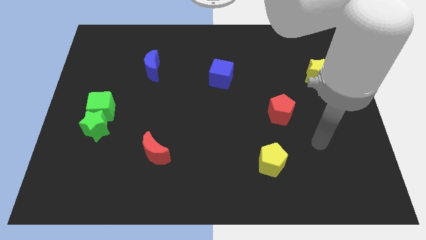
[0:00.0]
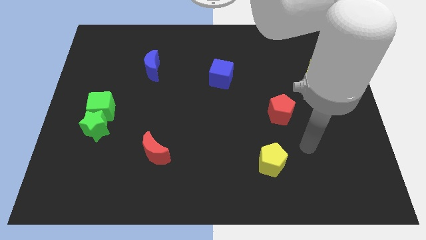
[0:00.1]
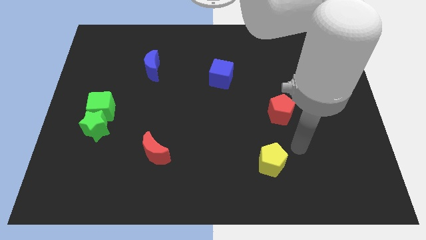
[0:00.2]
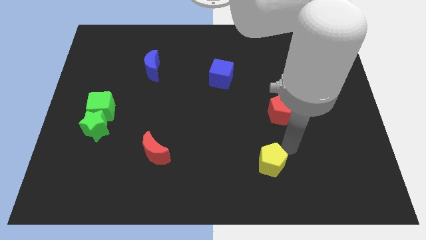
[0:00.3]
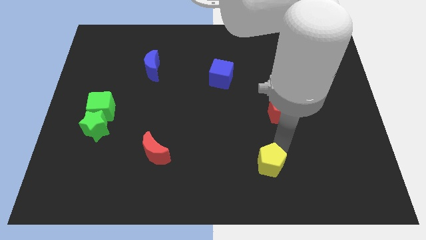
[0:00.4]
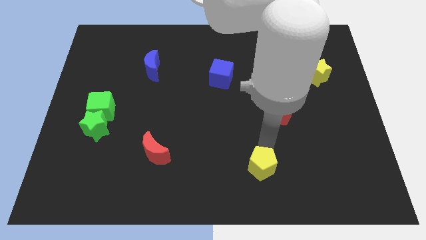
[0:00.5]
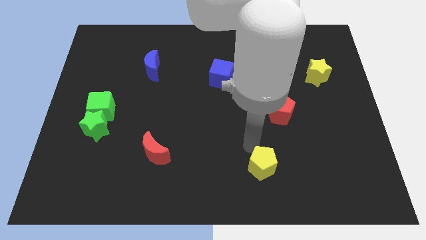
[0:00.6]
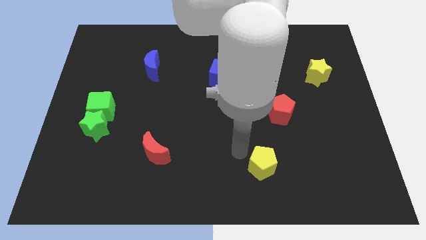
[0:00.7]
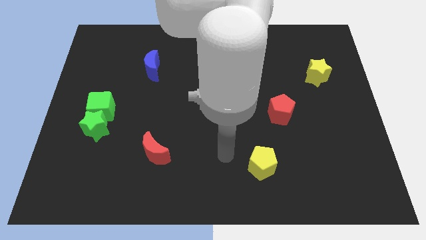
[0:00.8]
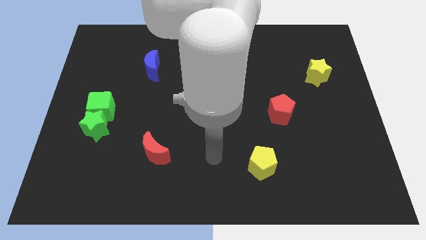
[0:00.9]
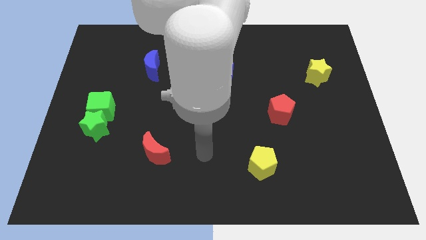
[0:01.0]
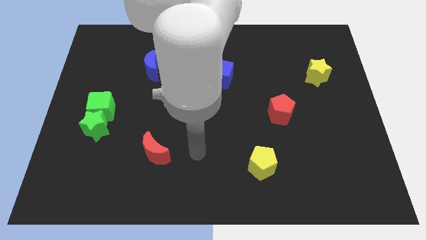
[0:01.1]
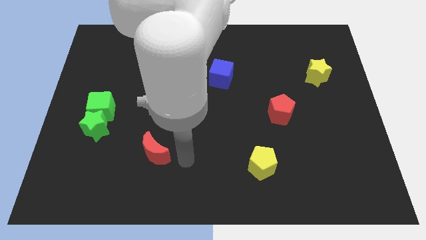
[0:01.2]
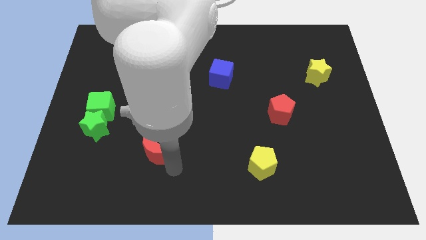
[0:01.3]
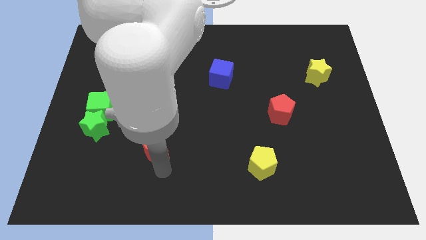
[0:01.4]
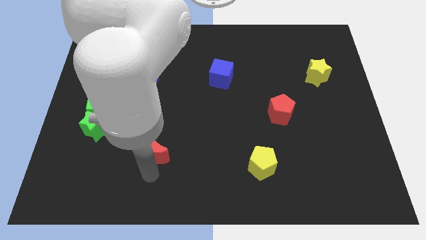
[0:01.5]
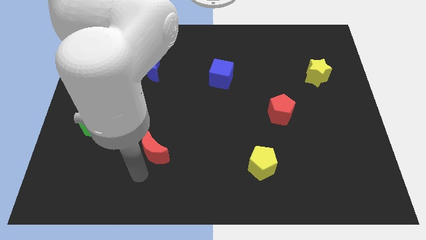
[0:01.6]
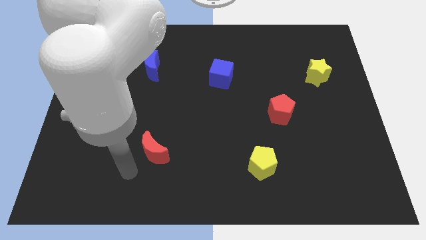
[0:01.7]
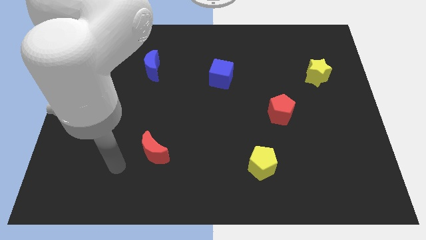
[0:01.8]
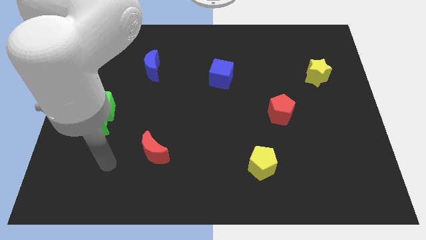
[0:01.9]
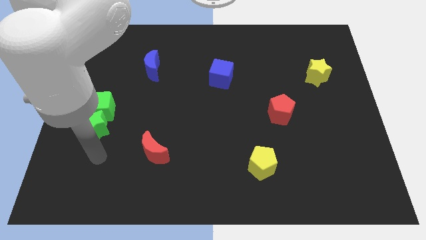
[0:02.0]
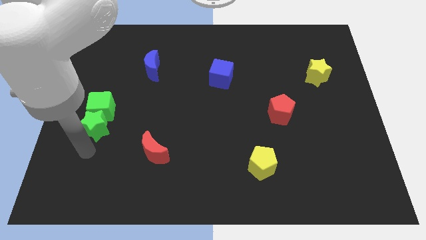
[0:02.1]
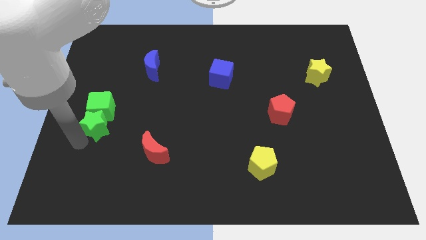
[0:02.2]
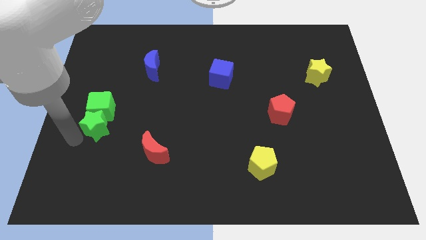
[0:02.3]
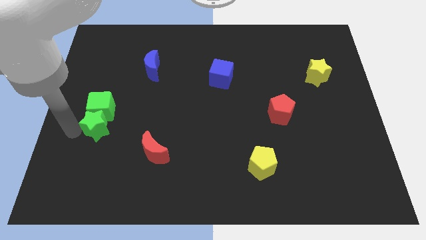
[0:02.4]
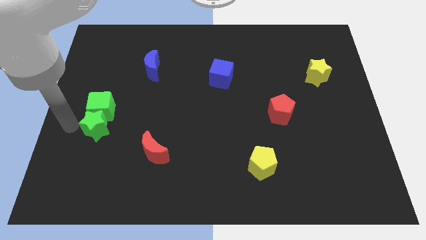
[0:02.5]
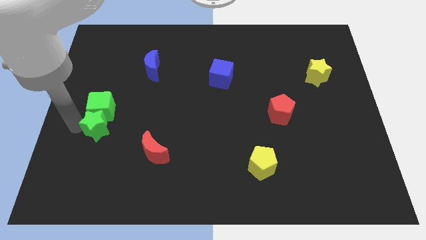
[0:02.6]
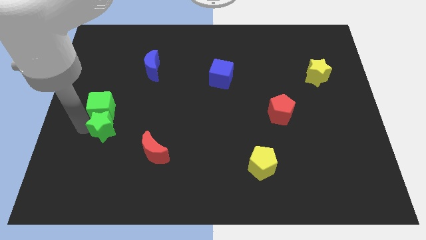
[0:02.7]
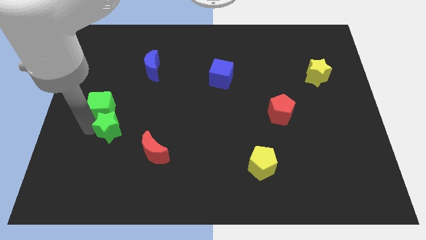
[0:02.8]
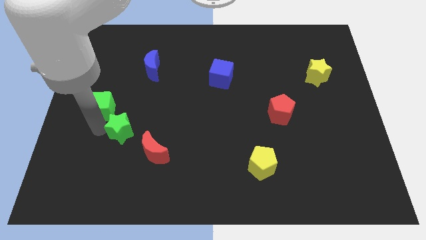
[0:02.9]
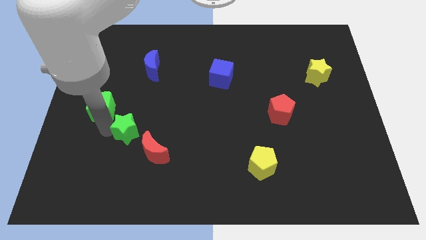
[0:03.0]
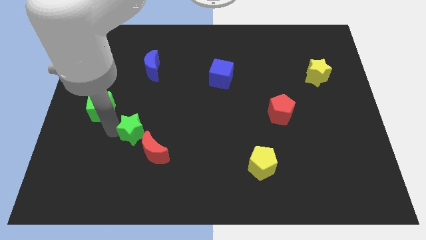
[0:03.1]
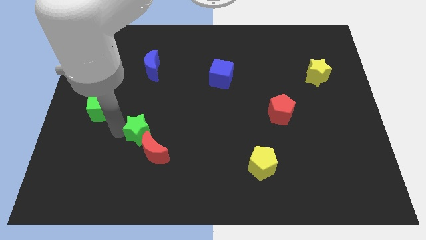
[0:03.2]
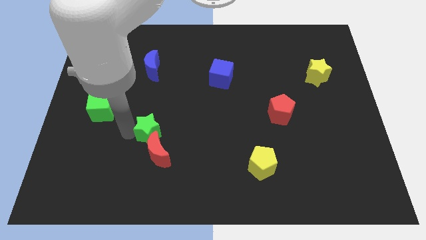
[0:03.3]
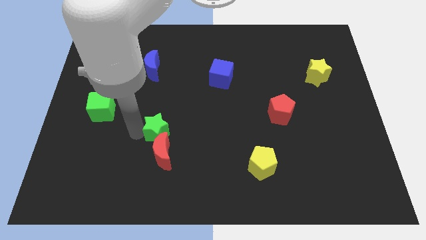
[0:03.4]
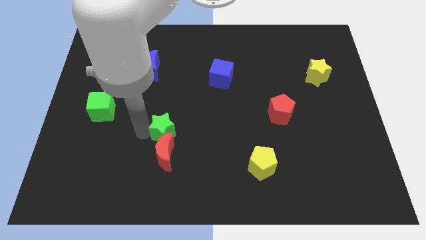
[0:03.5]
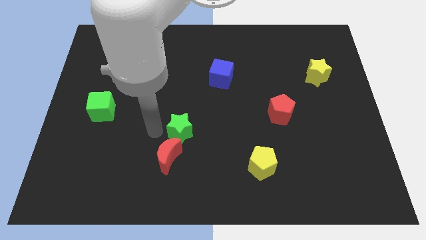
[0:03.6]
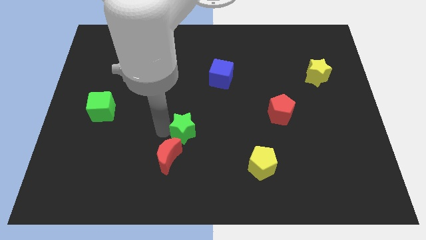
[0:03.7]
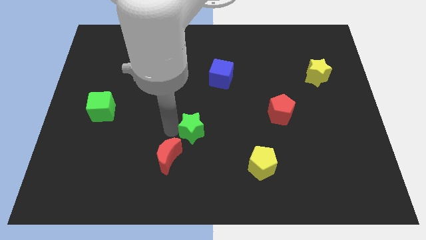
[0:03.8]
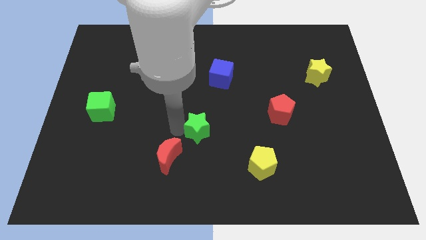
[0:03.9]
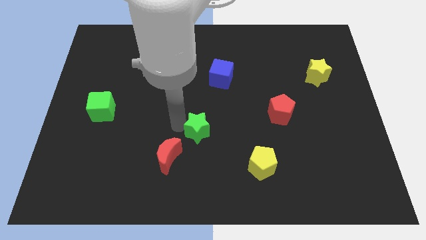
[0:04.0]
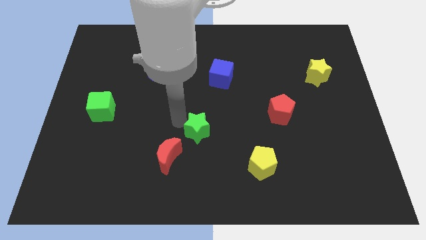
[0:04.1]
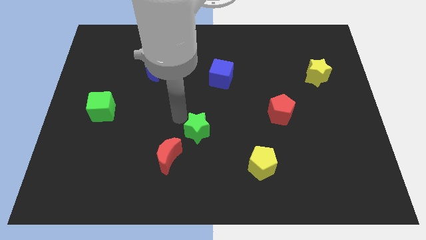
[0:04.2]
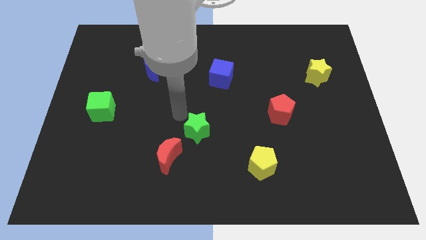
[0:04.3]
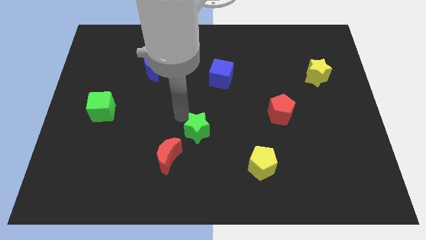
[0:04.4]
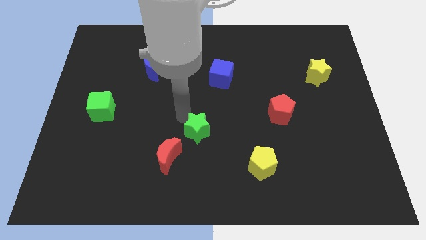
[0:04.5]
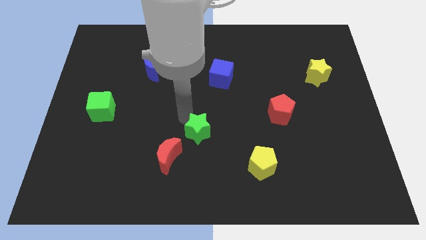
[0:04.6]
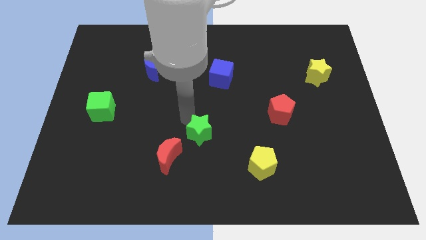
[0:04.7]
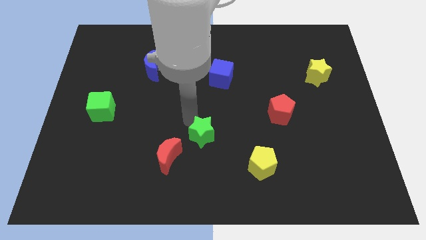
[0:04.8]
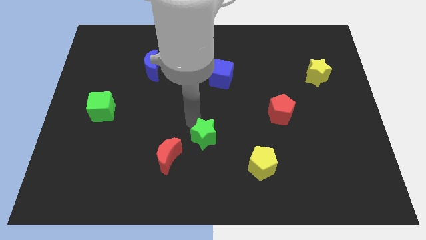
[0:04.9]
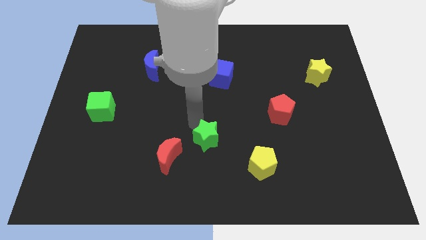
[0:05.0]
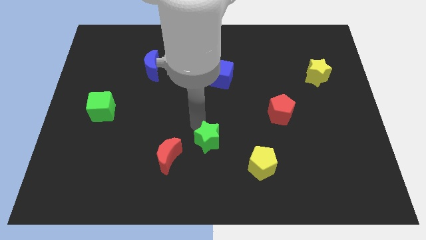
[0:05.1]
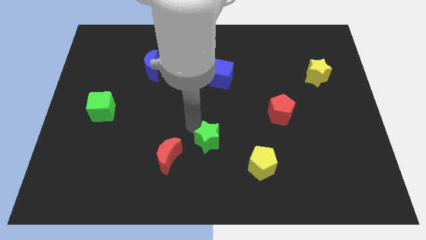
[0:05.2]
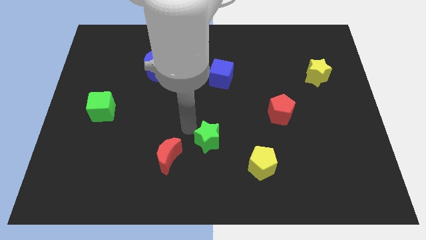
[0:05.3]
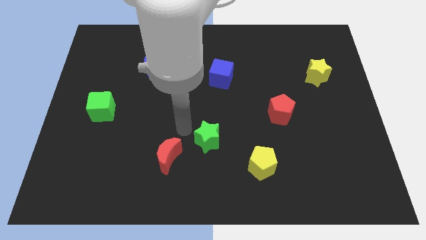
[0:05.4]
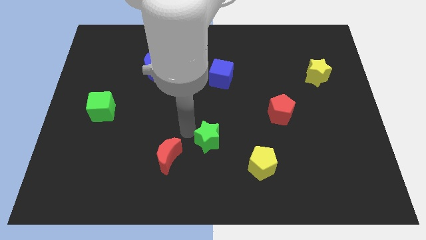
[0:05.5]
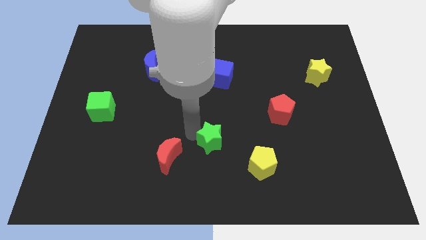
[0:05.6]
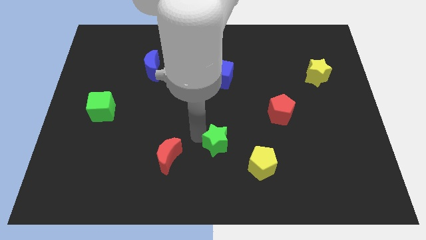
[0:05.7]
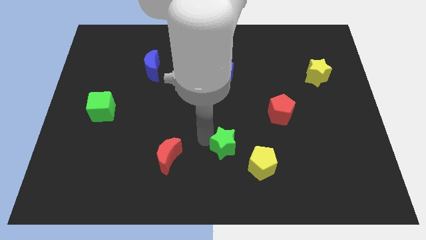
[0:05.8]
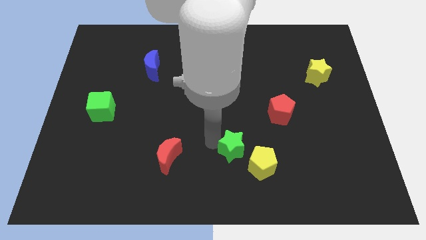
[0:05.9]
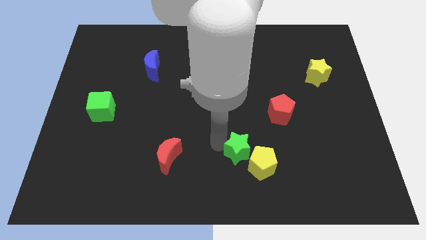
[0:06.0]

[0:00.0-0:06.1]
slide the green star close to the yellow pentagon

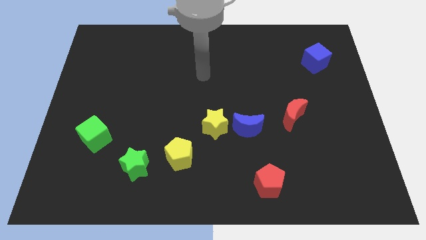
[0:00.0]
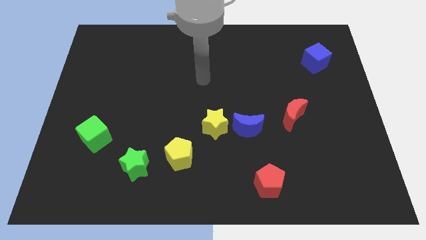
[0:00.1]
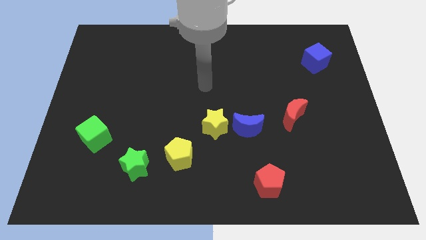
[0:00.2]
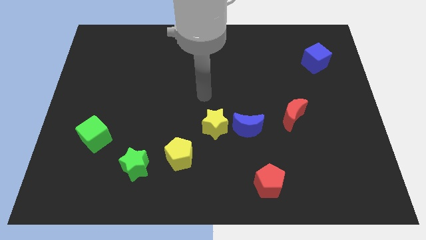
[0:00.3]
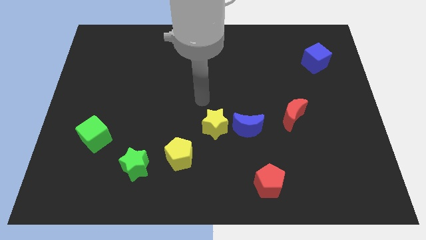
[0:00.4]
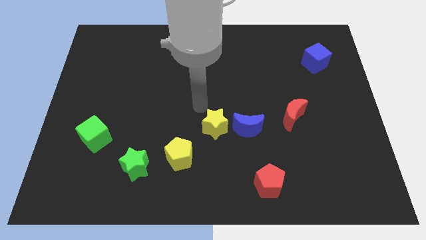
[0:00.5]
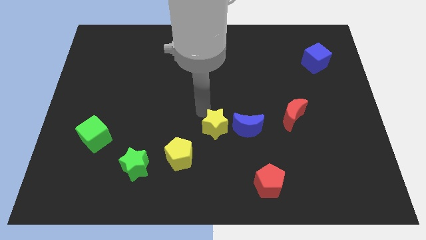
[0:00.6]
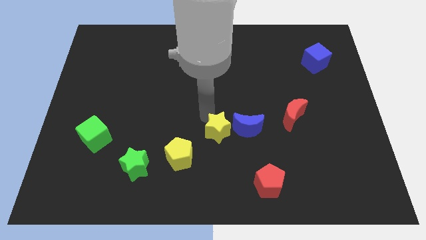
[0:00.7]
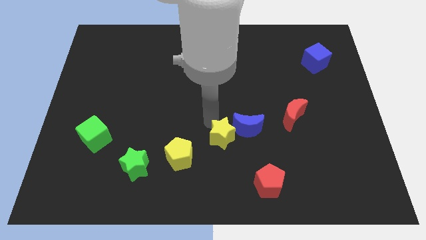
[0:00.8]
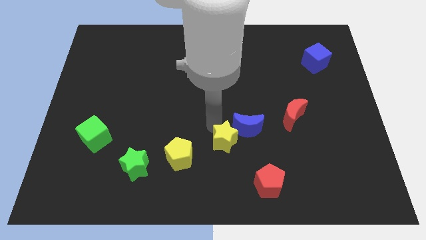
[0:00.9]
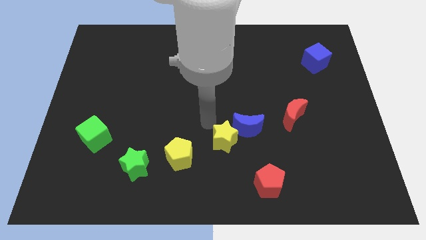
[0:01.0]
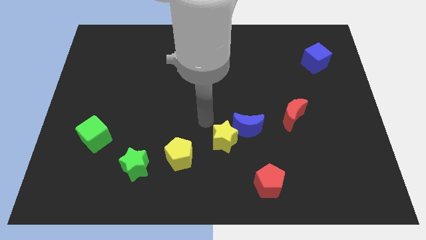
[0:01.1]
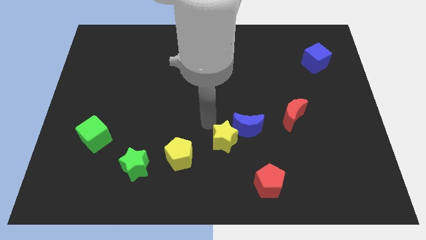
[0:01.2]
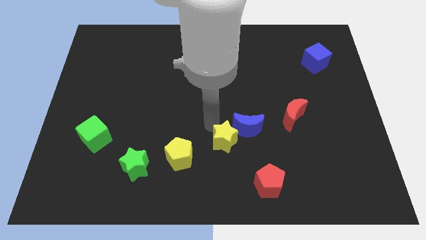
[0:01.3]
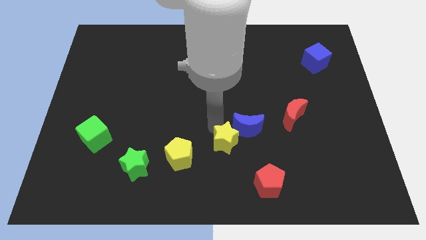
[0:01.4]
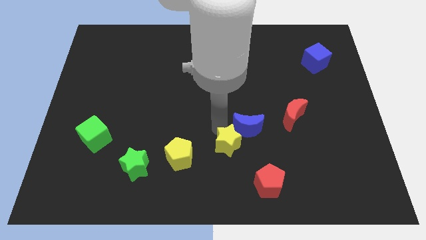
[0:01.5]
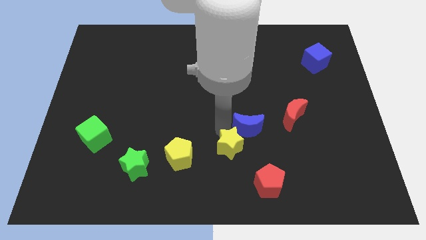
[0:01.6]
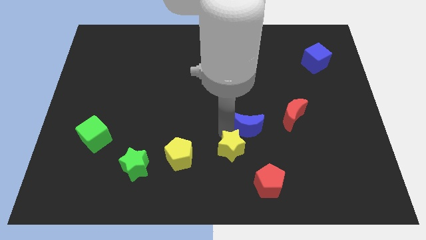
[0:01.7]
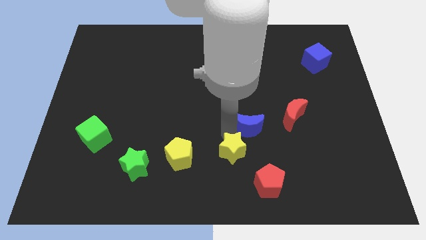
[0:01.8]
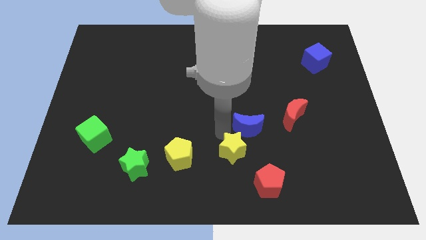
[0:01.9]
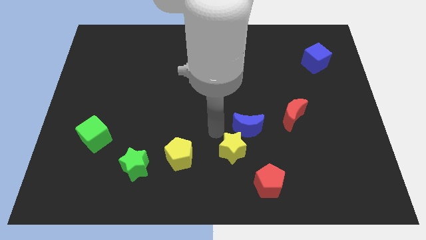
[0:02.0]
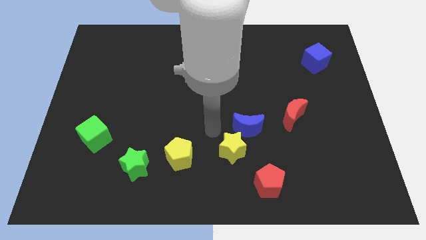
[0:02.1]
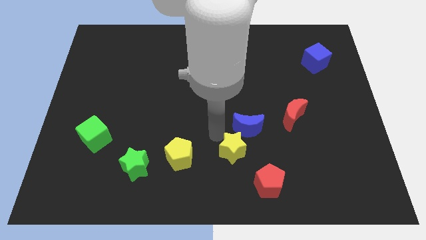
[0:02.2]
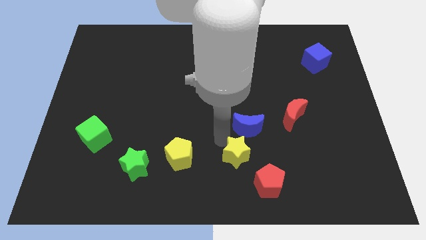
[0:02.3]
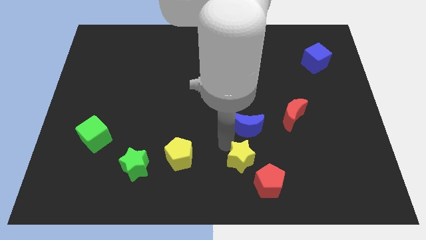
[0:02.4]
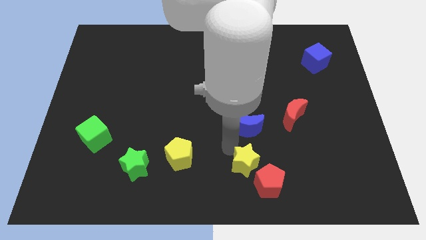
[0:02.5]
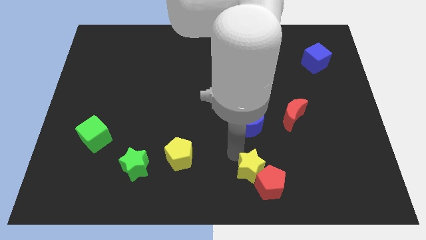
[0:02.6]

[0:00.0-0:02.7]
put the yellow star close to the red pentagon
